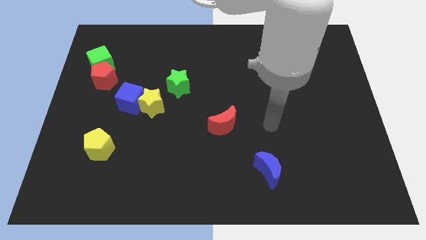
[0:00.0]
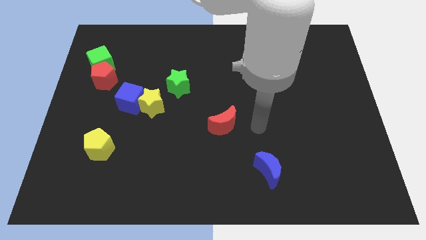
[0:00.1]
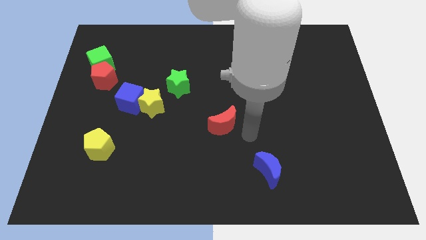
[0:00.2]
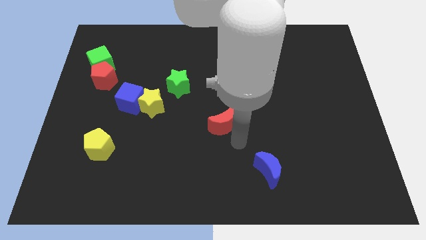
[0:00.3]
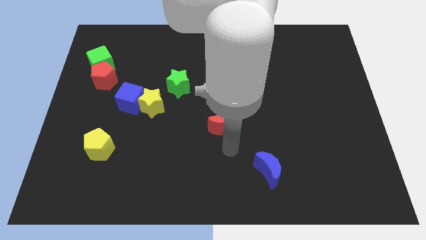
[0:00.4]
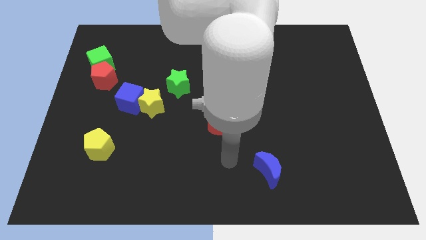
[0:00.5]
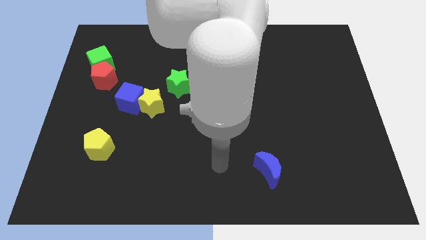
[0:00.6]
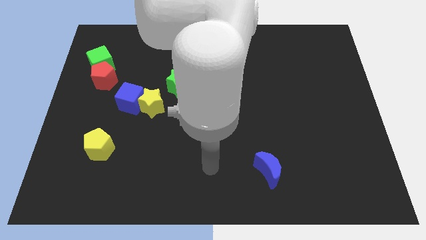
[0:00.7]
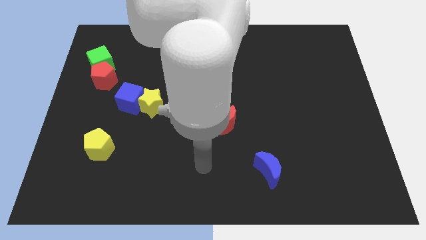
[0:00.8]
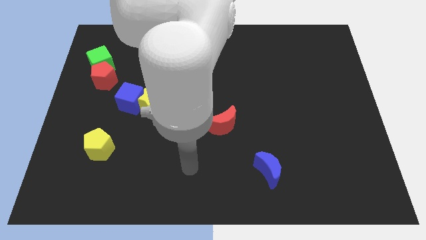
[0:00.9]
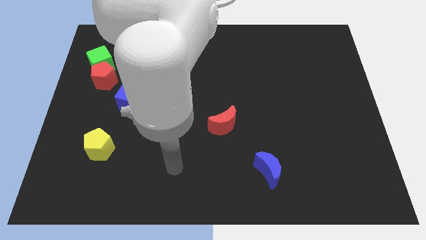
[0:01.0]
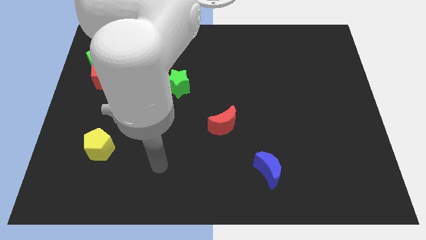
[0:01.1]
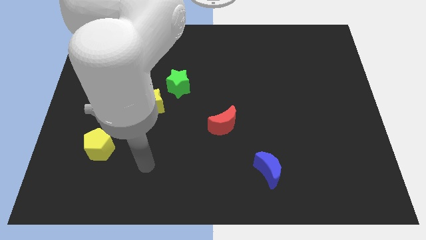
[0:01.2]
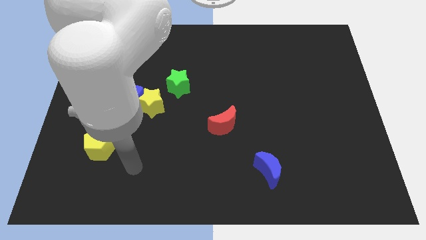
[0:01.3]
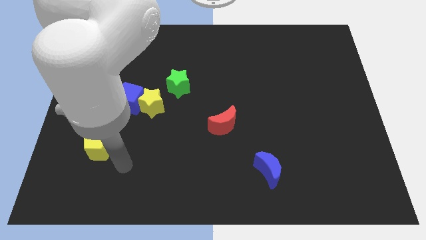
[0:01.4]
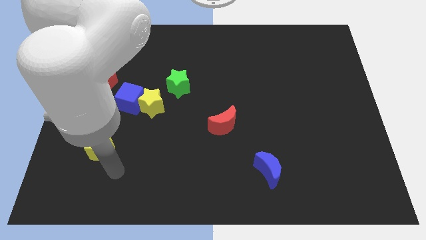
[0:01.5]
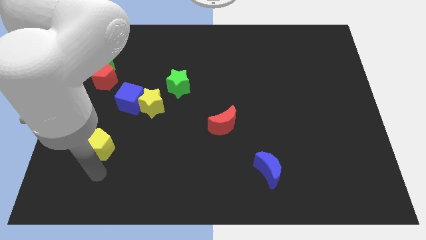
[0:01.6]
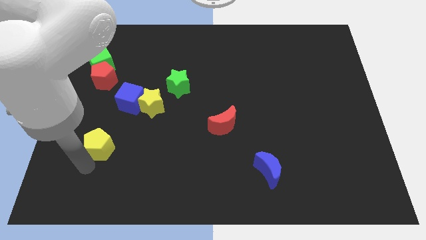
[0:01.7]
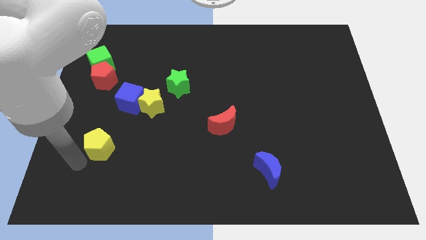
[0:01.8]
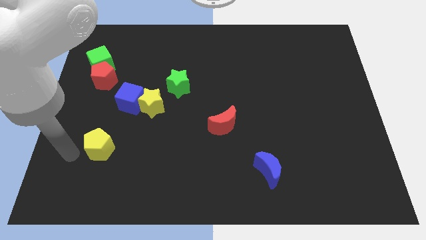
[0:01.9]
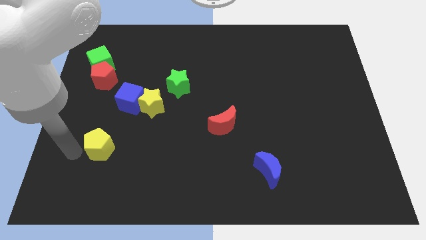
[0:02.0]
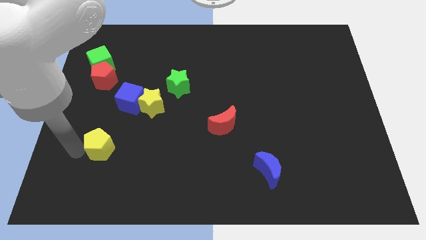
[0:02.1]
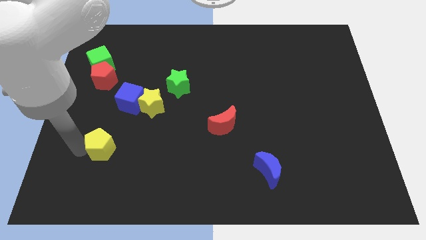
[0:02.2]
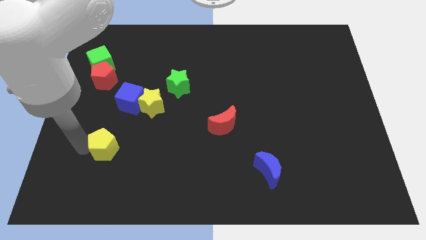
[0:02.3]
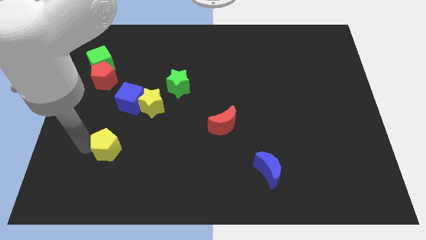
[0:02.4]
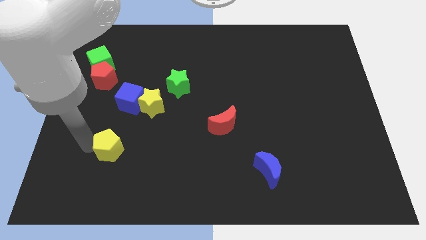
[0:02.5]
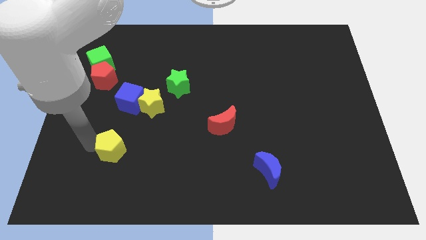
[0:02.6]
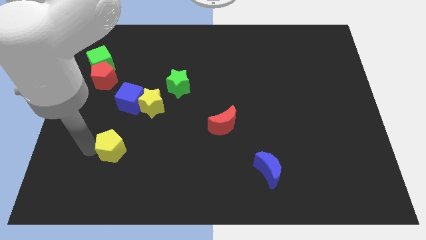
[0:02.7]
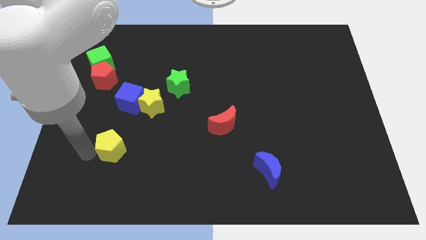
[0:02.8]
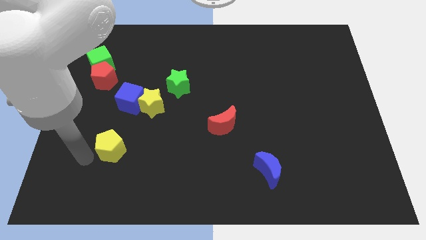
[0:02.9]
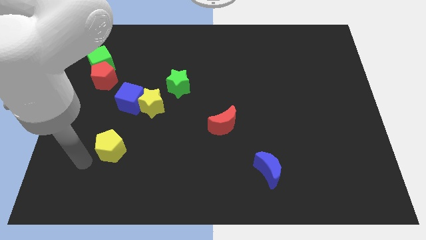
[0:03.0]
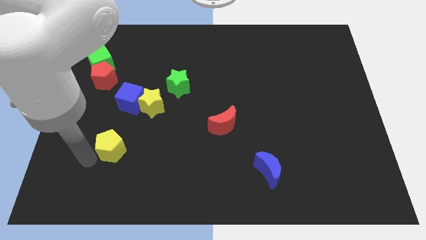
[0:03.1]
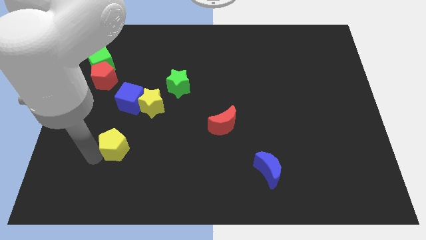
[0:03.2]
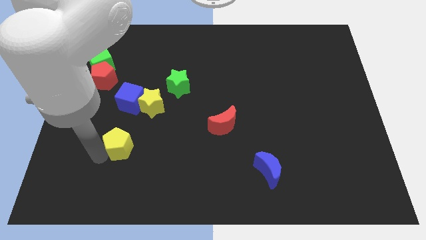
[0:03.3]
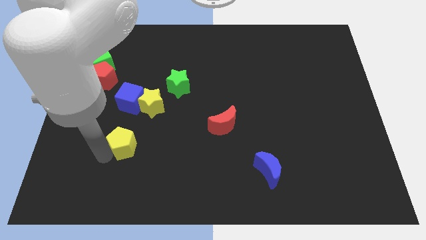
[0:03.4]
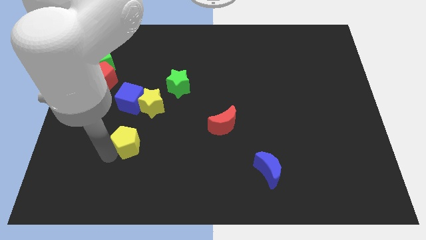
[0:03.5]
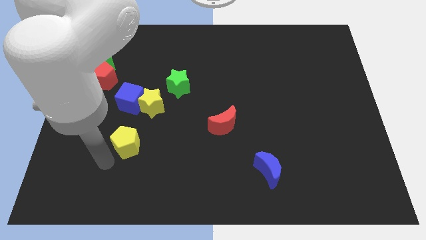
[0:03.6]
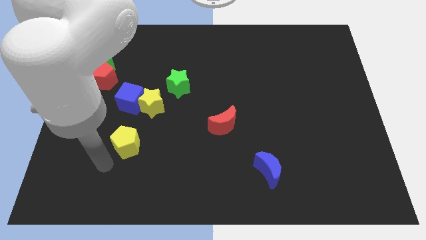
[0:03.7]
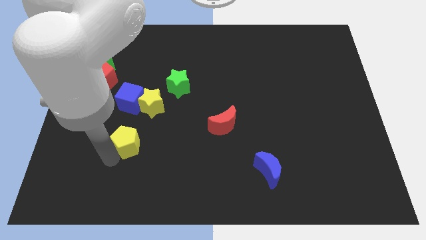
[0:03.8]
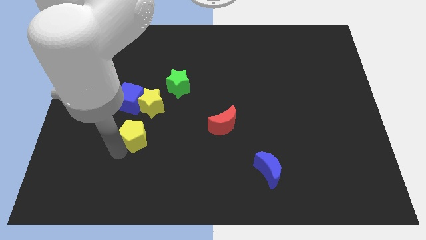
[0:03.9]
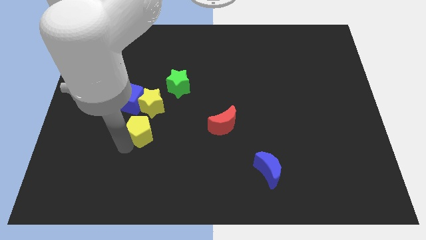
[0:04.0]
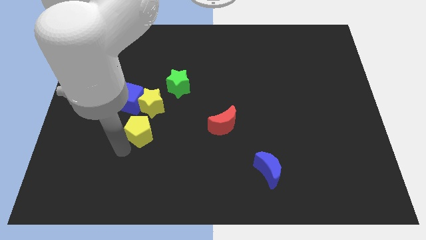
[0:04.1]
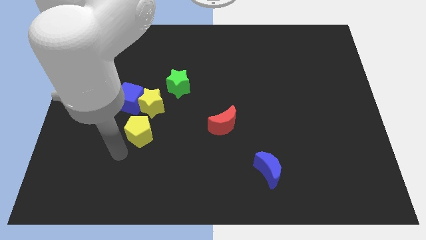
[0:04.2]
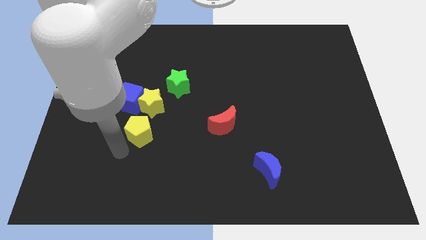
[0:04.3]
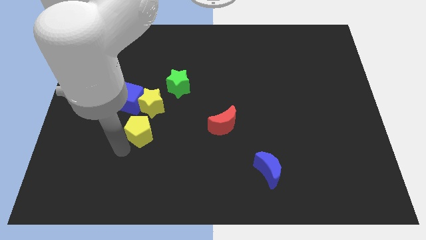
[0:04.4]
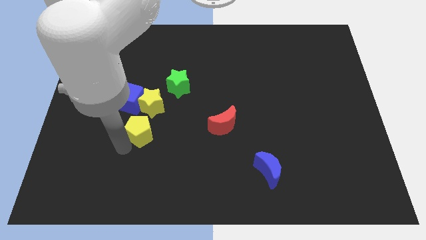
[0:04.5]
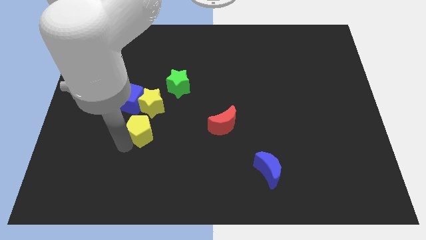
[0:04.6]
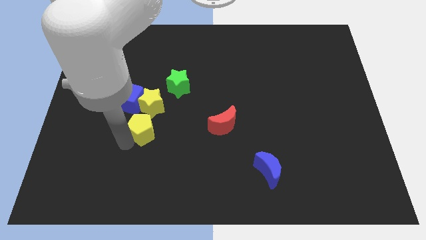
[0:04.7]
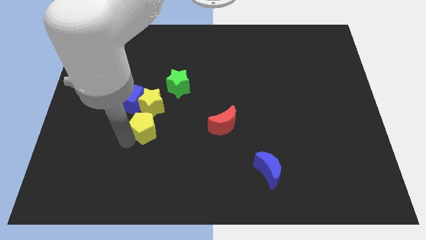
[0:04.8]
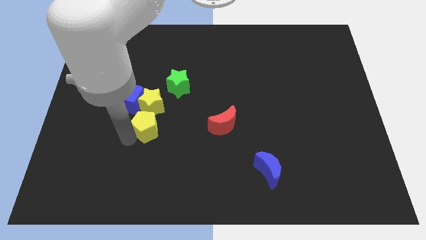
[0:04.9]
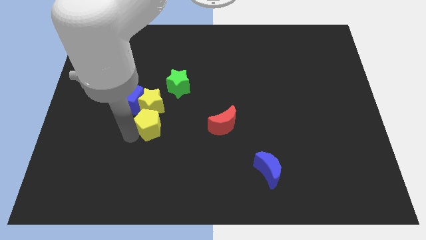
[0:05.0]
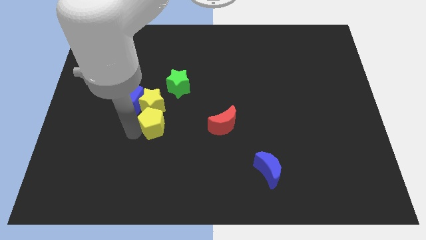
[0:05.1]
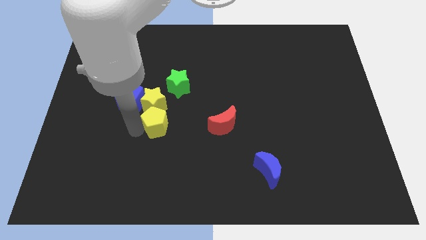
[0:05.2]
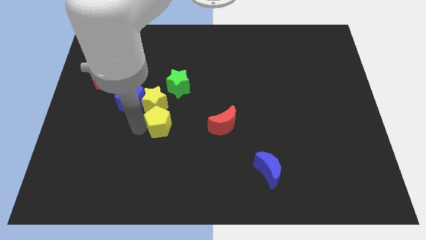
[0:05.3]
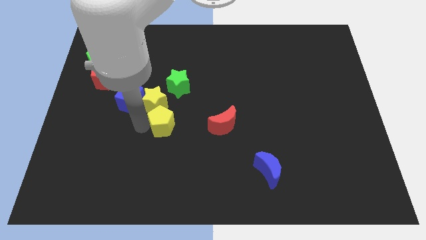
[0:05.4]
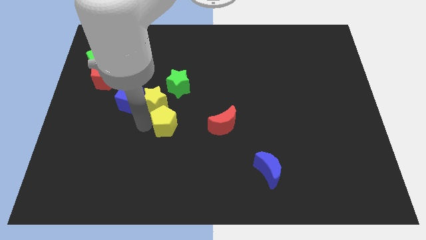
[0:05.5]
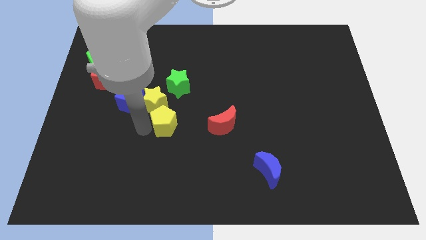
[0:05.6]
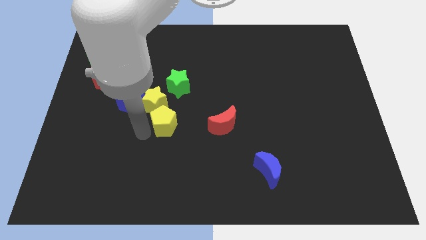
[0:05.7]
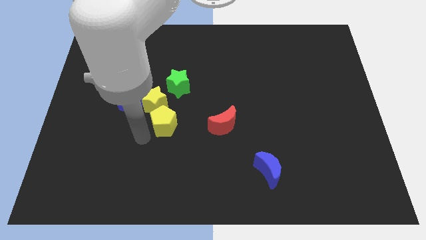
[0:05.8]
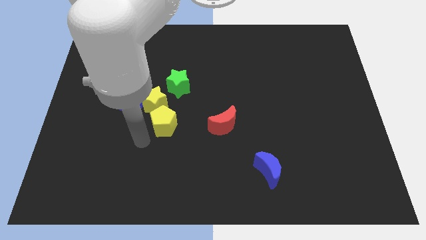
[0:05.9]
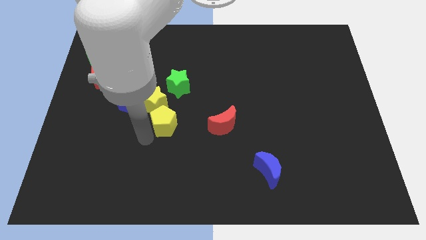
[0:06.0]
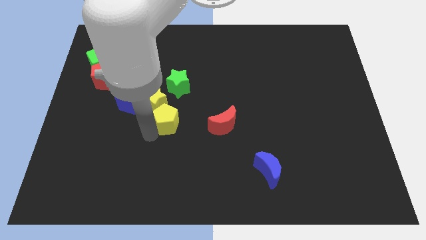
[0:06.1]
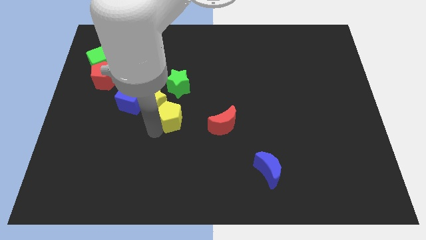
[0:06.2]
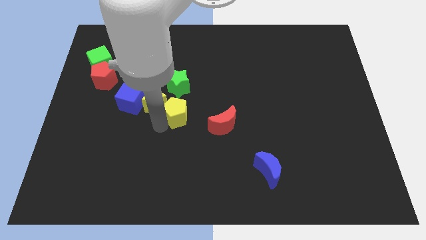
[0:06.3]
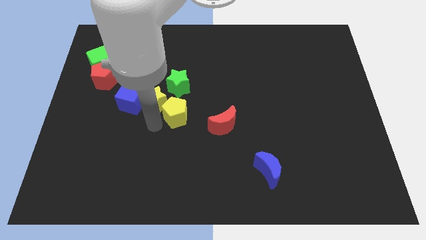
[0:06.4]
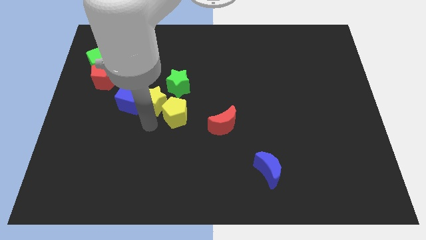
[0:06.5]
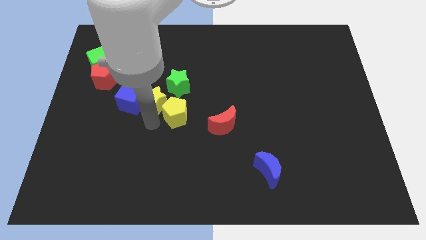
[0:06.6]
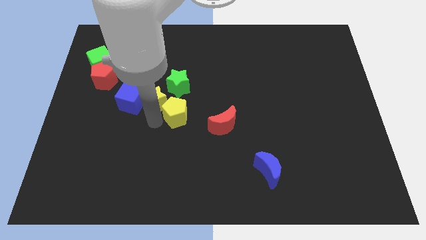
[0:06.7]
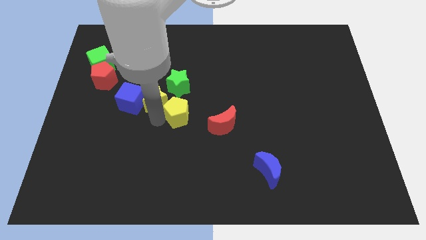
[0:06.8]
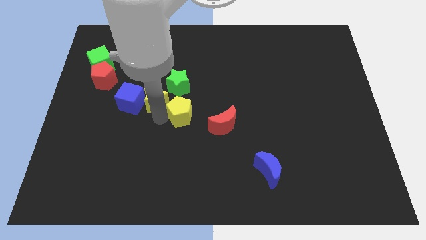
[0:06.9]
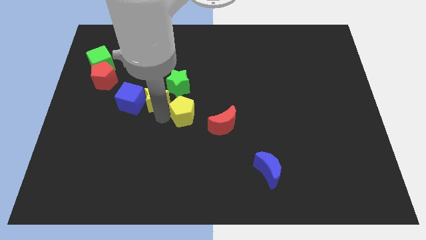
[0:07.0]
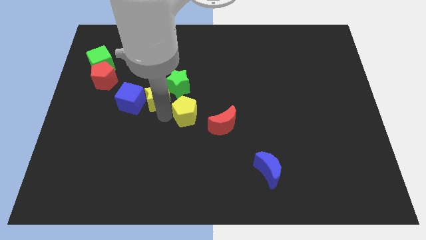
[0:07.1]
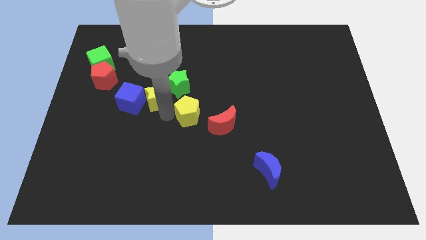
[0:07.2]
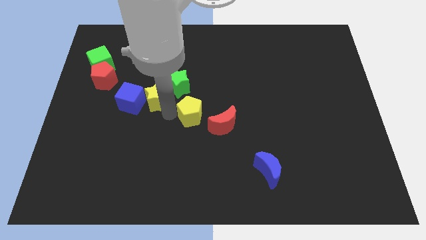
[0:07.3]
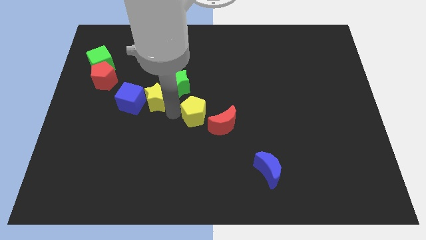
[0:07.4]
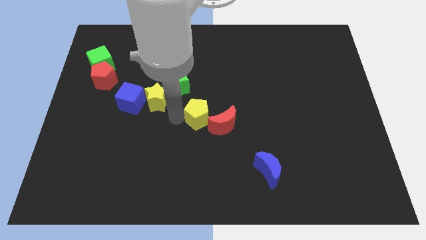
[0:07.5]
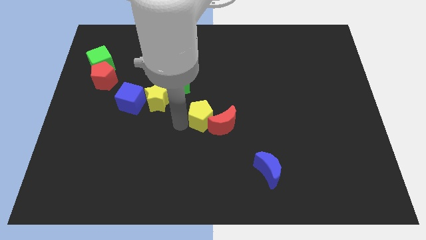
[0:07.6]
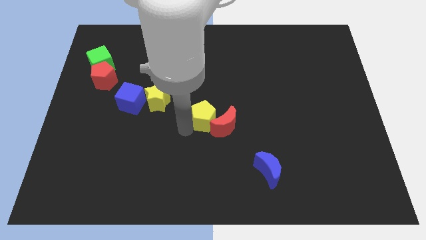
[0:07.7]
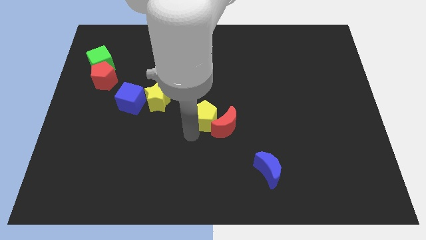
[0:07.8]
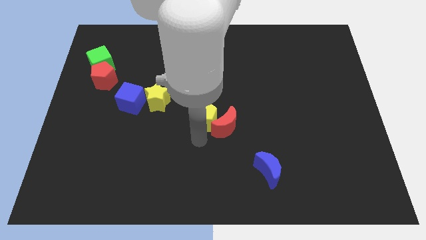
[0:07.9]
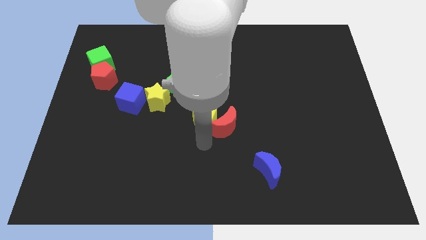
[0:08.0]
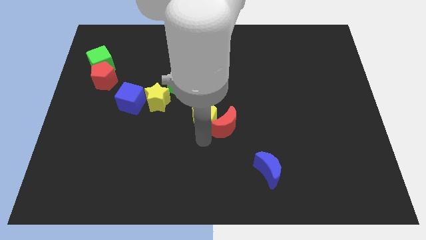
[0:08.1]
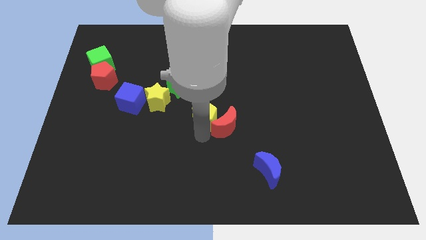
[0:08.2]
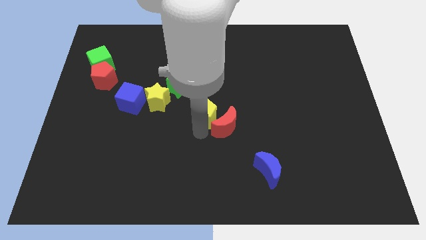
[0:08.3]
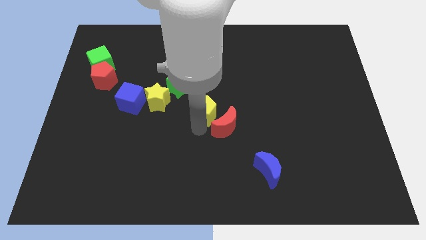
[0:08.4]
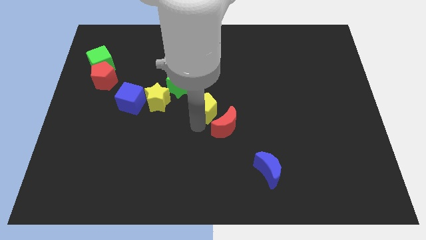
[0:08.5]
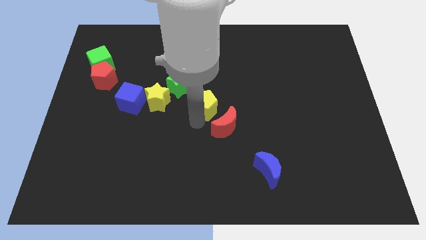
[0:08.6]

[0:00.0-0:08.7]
move the yellow pentagon up and right diagonally
